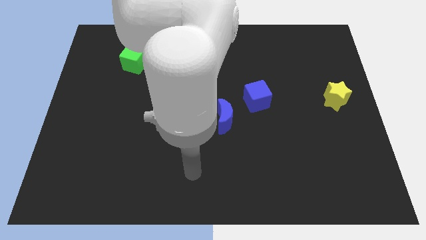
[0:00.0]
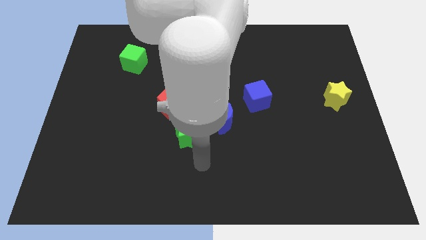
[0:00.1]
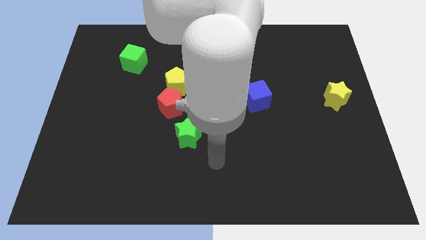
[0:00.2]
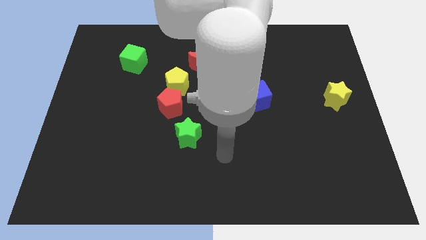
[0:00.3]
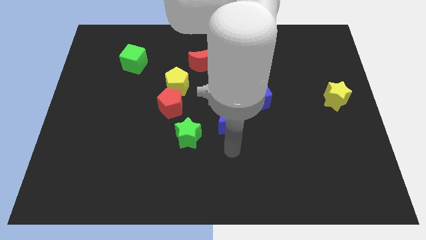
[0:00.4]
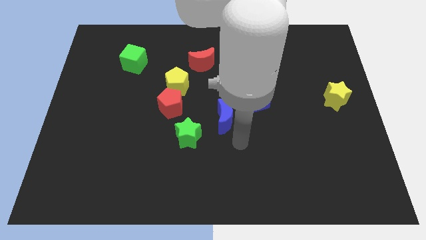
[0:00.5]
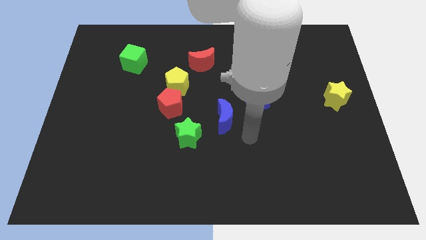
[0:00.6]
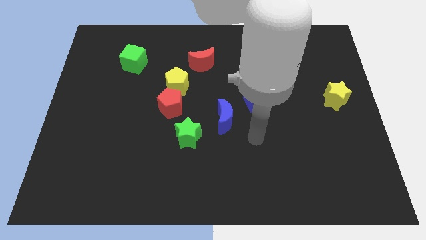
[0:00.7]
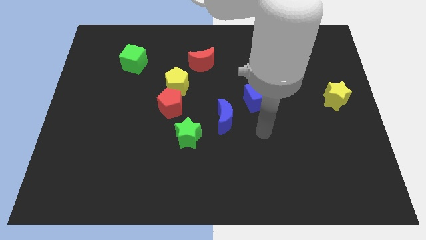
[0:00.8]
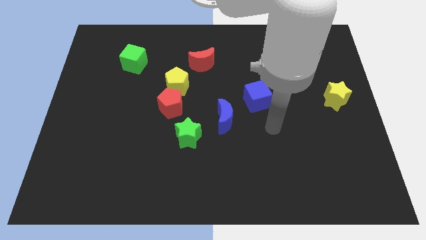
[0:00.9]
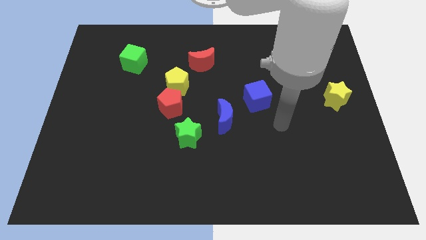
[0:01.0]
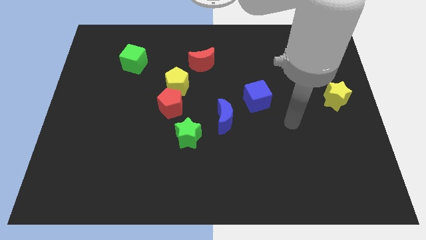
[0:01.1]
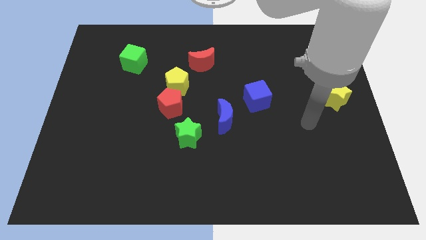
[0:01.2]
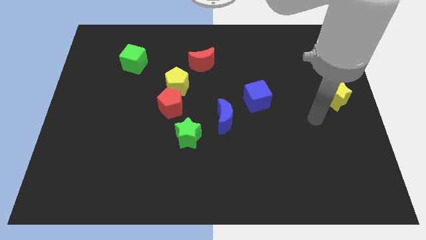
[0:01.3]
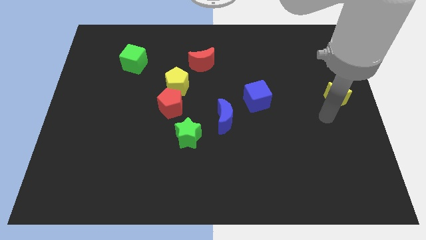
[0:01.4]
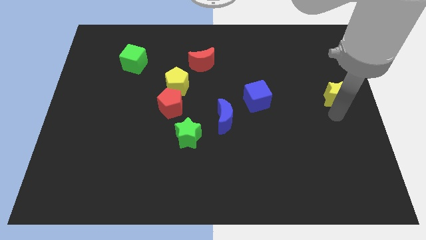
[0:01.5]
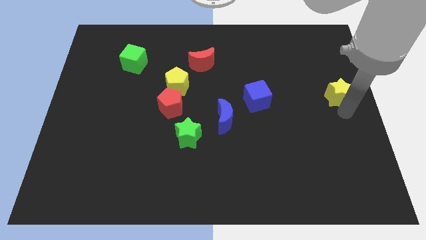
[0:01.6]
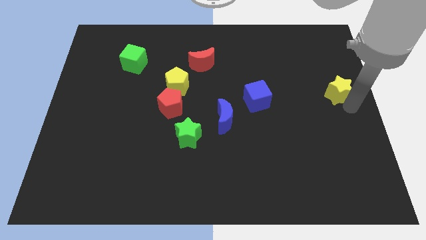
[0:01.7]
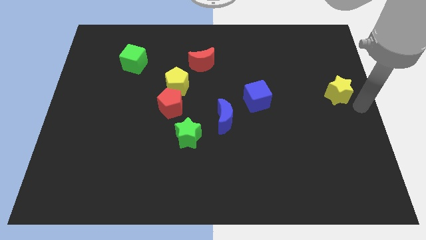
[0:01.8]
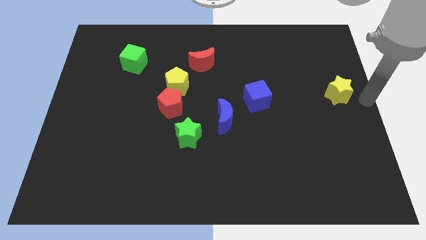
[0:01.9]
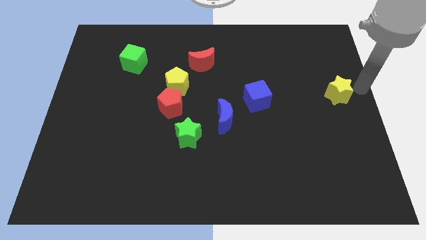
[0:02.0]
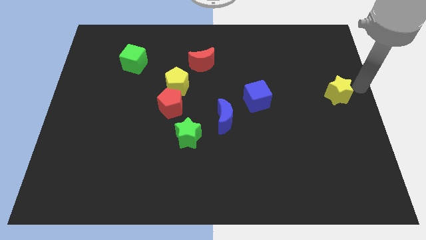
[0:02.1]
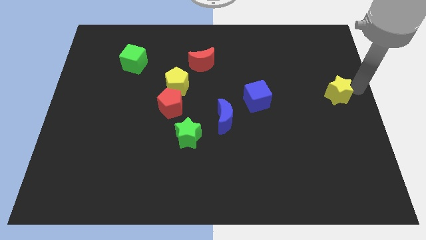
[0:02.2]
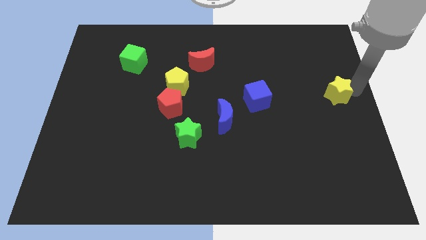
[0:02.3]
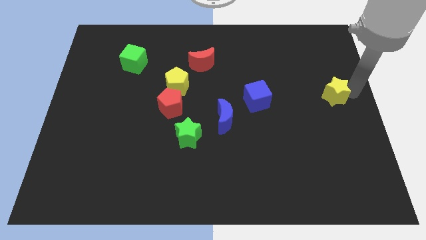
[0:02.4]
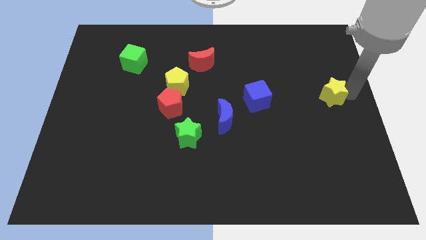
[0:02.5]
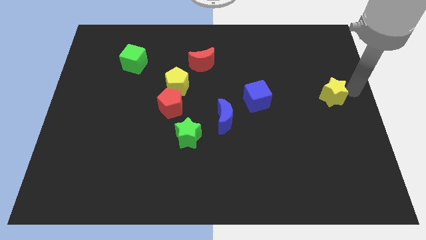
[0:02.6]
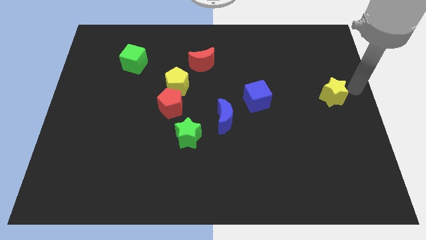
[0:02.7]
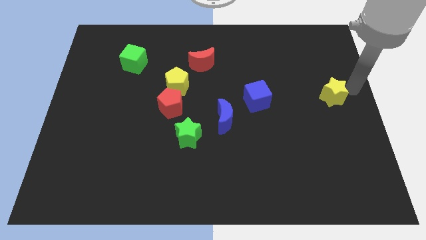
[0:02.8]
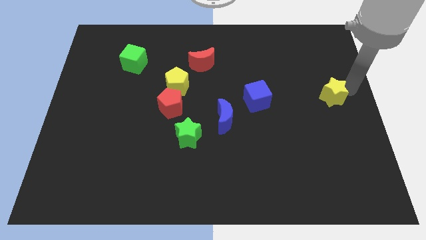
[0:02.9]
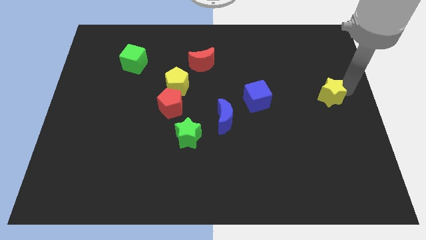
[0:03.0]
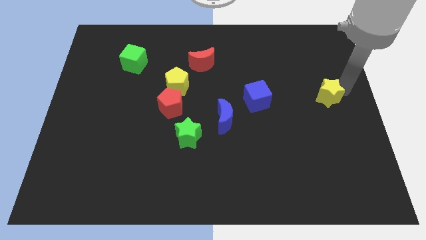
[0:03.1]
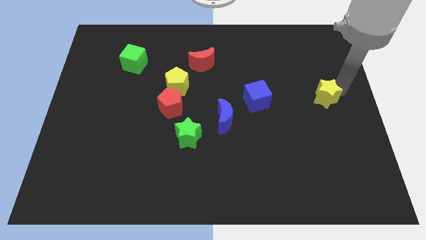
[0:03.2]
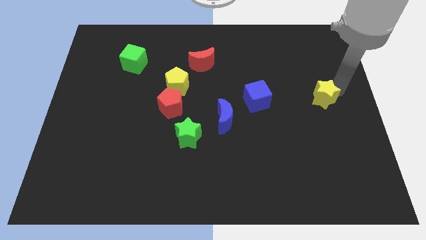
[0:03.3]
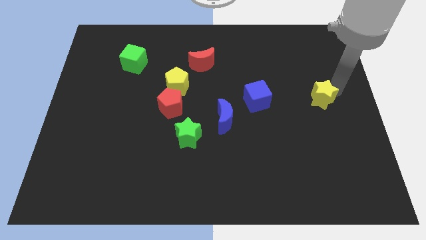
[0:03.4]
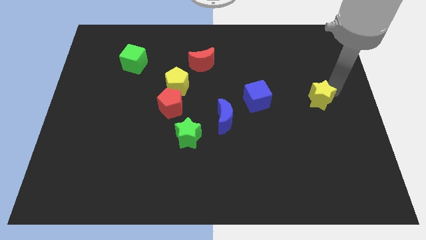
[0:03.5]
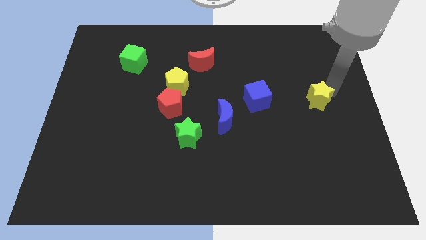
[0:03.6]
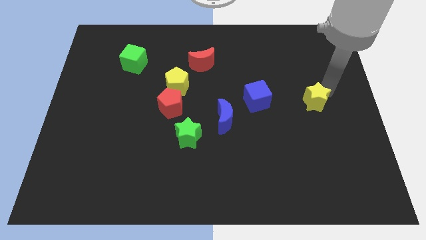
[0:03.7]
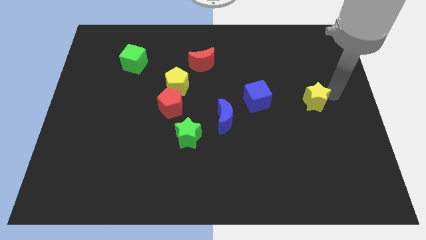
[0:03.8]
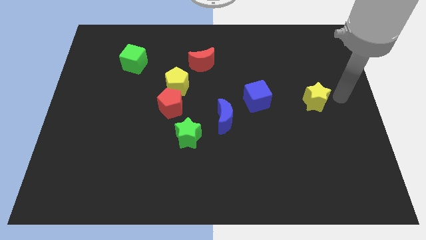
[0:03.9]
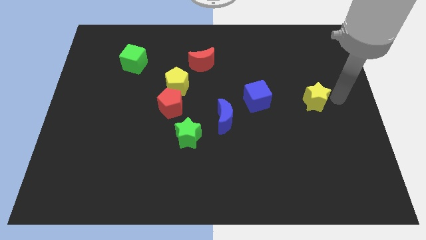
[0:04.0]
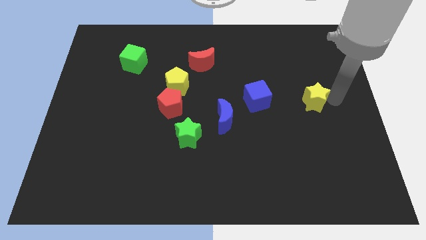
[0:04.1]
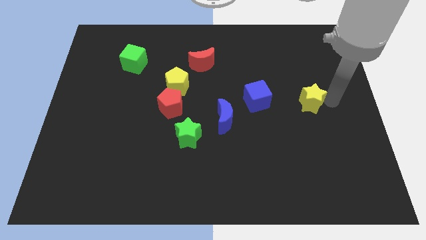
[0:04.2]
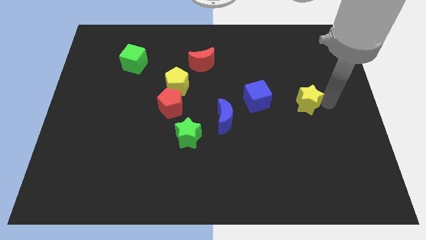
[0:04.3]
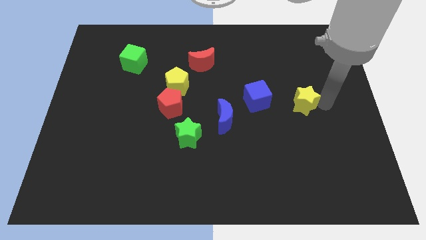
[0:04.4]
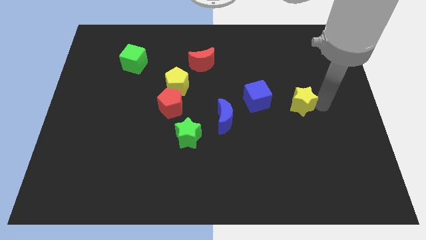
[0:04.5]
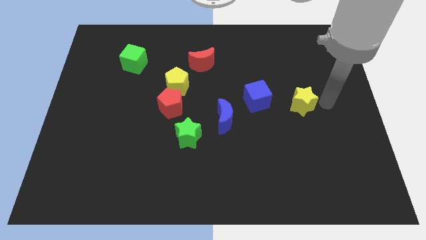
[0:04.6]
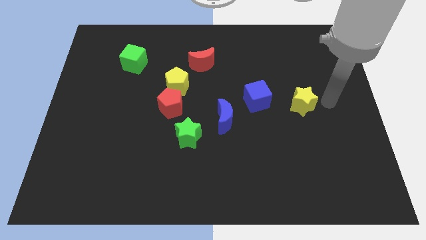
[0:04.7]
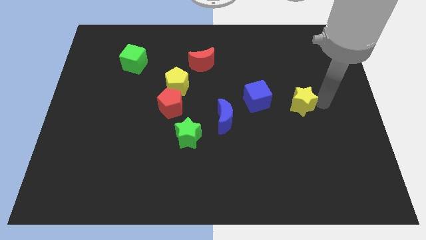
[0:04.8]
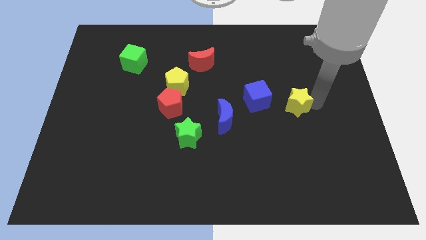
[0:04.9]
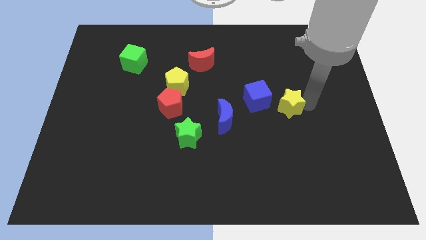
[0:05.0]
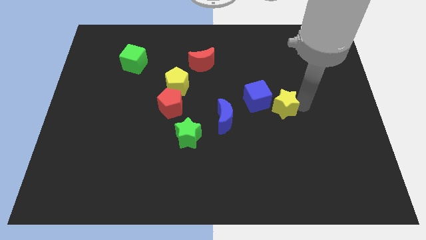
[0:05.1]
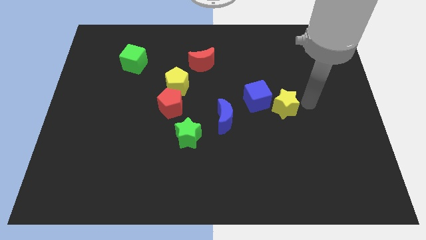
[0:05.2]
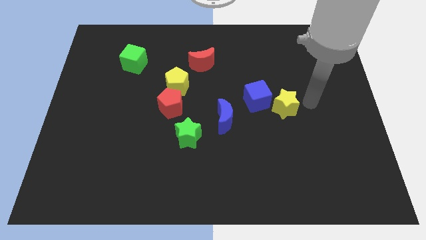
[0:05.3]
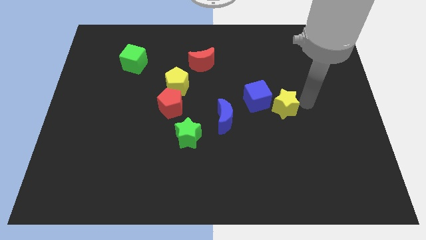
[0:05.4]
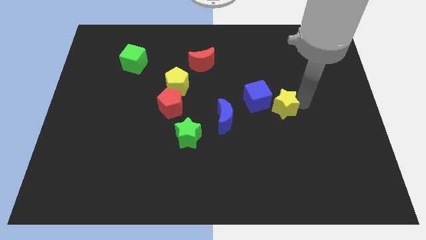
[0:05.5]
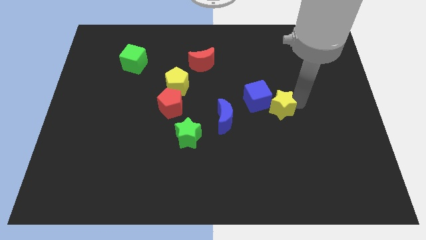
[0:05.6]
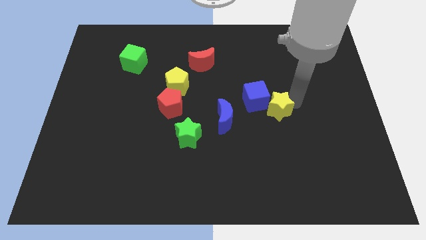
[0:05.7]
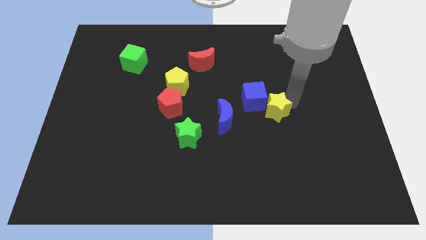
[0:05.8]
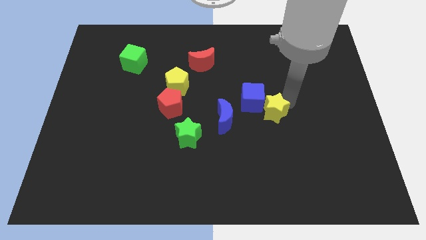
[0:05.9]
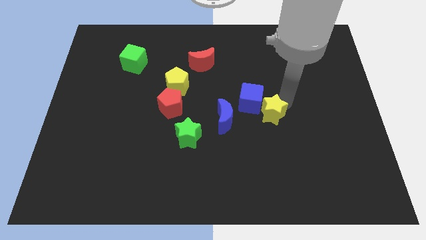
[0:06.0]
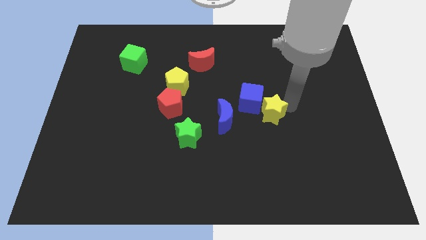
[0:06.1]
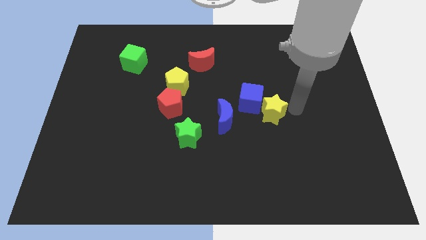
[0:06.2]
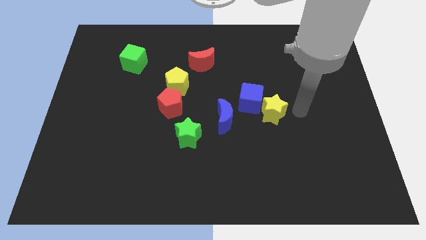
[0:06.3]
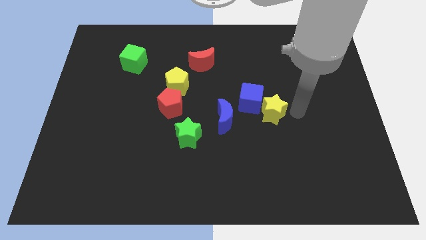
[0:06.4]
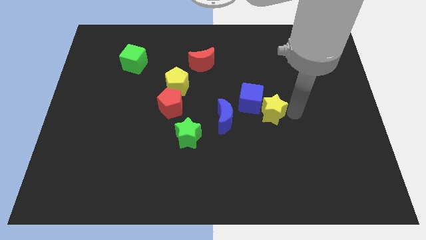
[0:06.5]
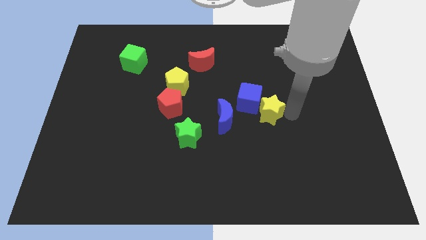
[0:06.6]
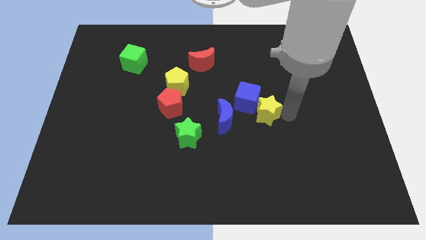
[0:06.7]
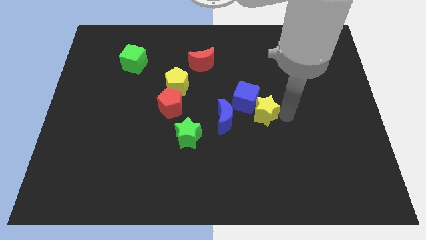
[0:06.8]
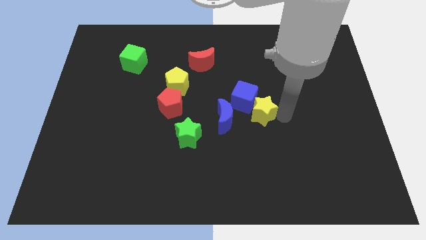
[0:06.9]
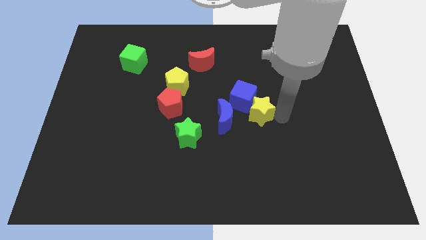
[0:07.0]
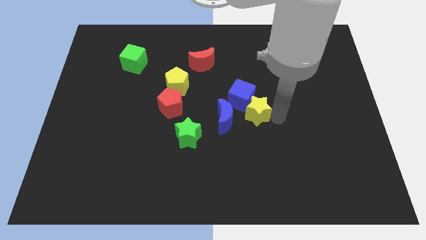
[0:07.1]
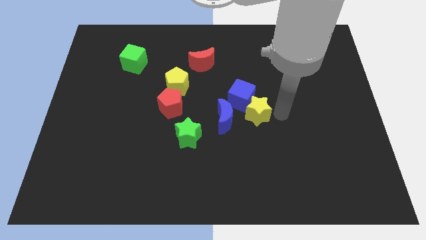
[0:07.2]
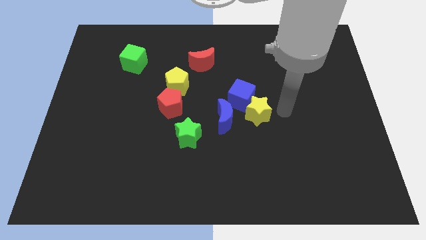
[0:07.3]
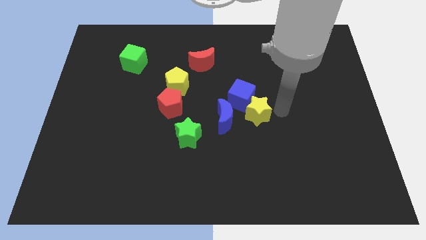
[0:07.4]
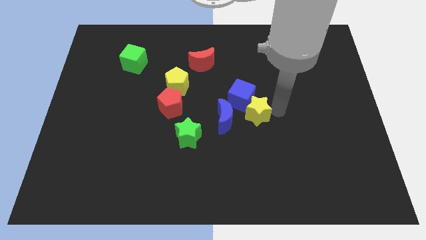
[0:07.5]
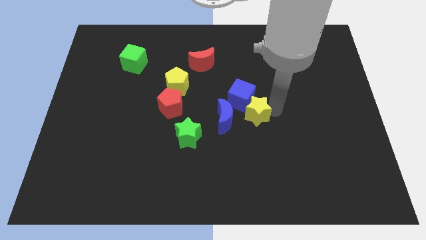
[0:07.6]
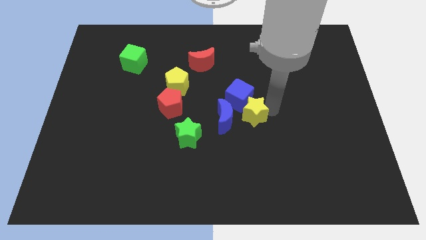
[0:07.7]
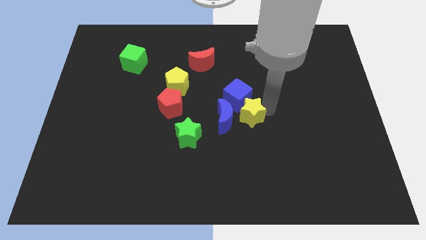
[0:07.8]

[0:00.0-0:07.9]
slide the yellow star next to the blue moon
